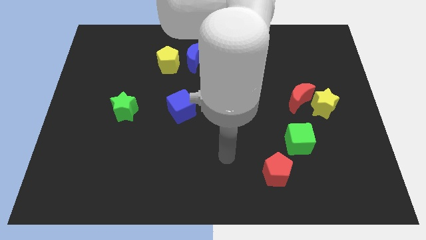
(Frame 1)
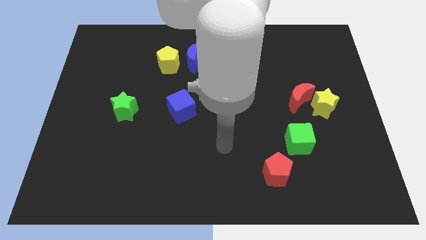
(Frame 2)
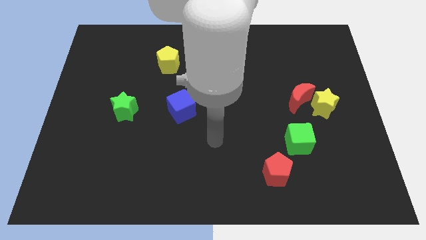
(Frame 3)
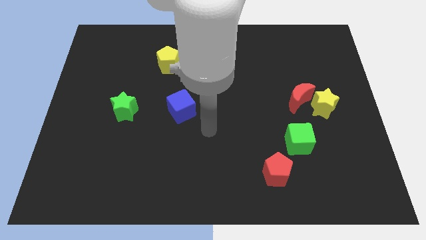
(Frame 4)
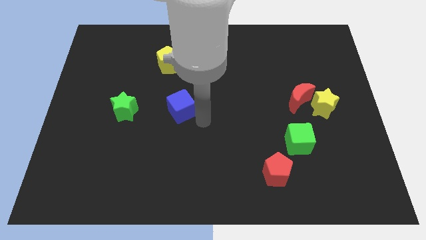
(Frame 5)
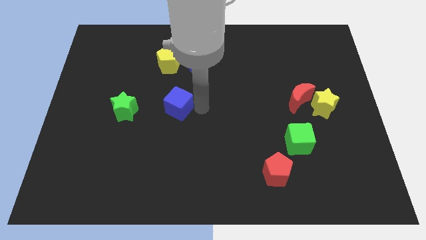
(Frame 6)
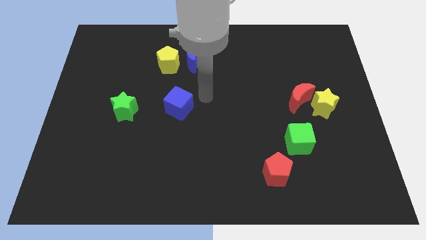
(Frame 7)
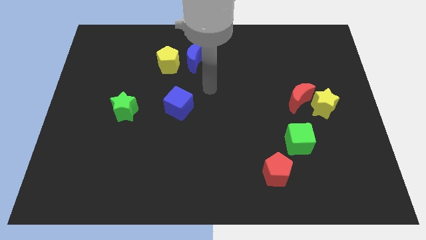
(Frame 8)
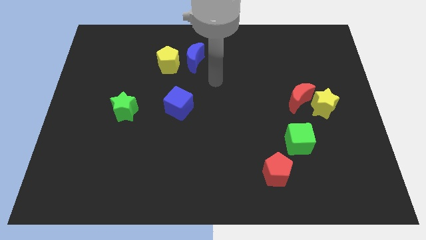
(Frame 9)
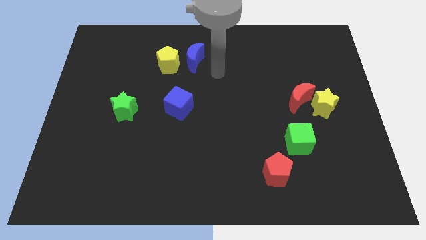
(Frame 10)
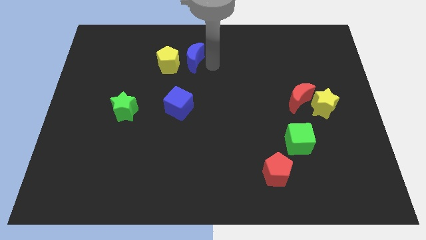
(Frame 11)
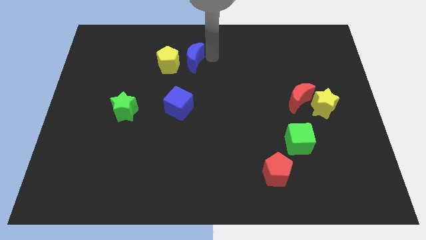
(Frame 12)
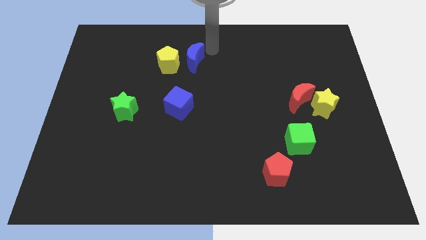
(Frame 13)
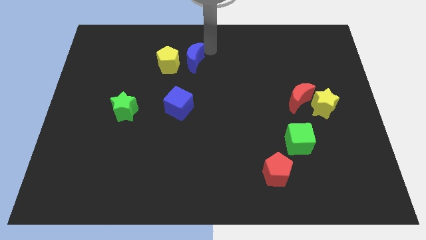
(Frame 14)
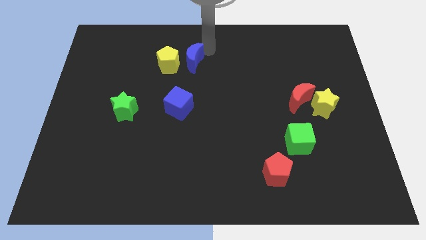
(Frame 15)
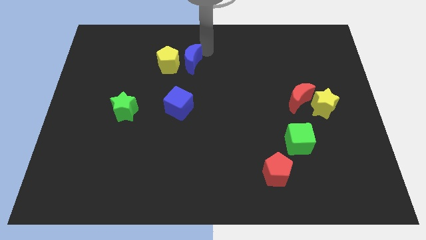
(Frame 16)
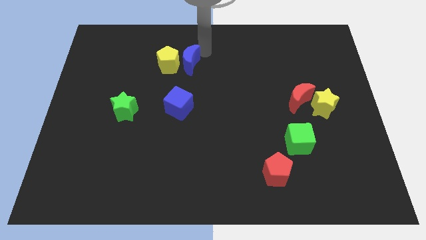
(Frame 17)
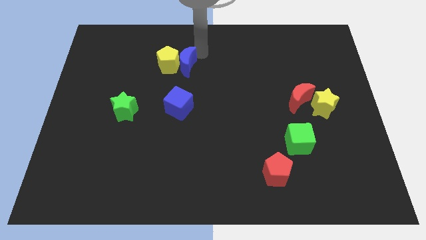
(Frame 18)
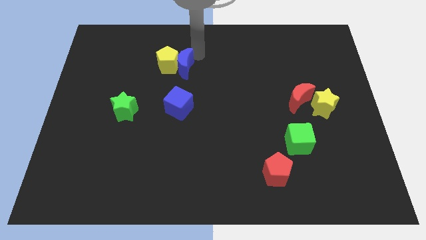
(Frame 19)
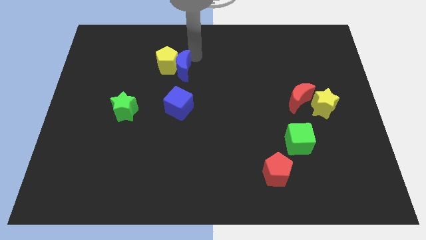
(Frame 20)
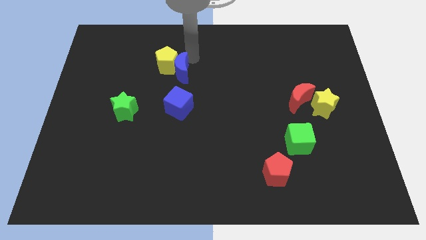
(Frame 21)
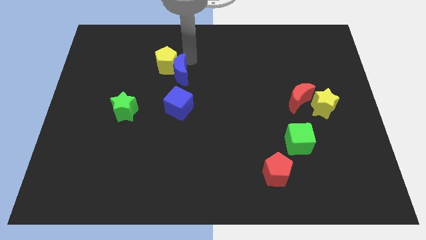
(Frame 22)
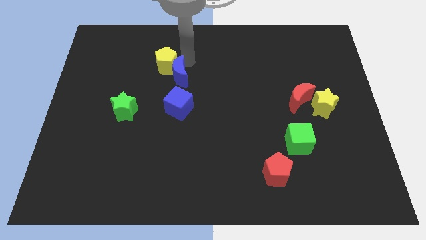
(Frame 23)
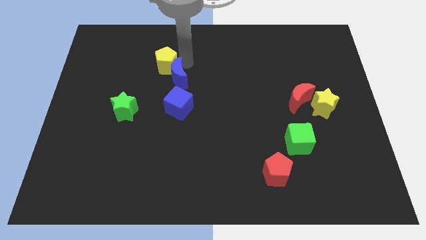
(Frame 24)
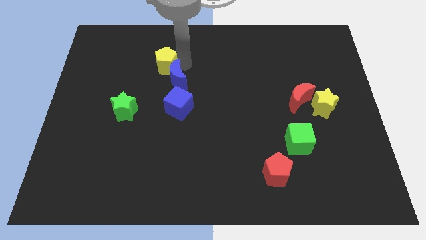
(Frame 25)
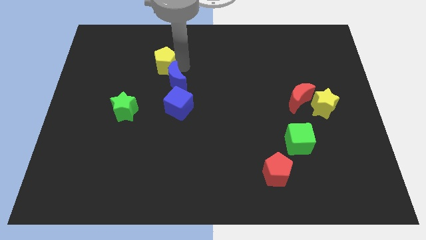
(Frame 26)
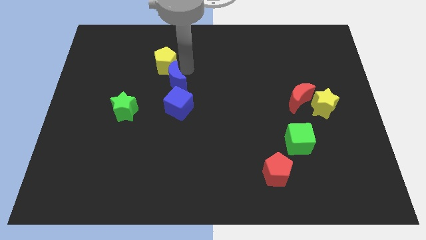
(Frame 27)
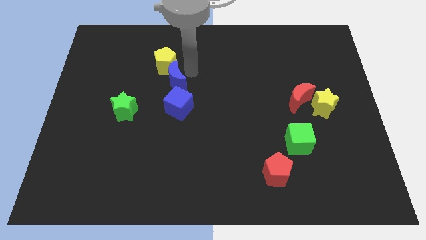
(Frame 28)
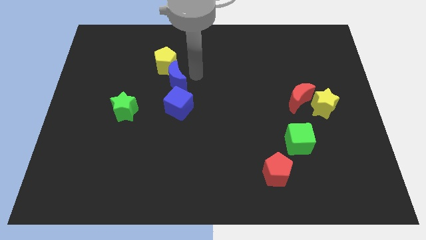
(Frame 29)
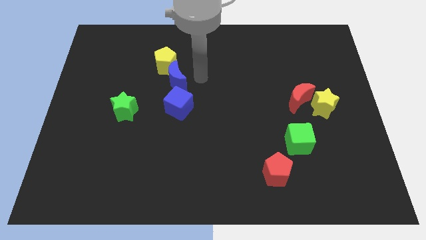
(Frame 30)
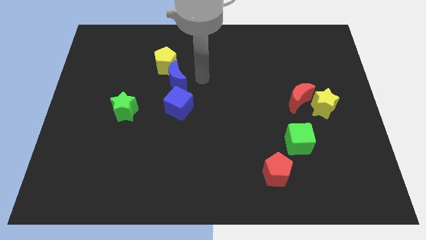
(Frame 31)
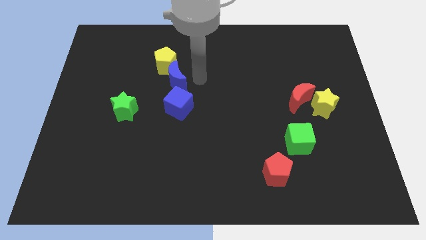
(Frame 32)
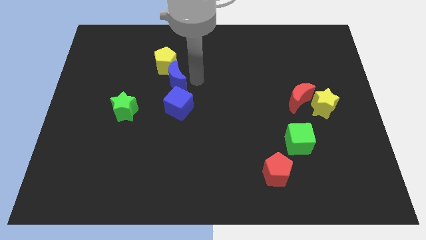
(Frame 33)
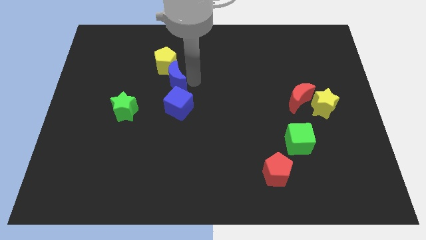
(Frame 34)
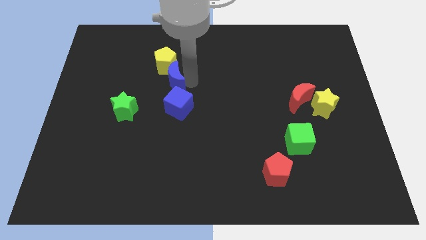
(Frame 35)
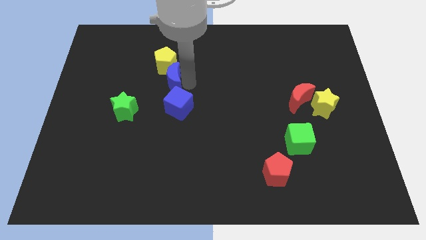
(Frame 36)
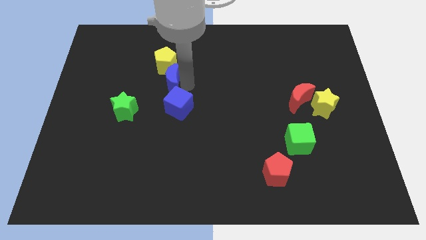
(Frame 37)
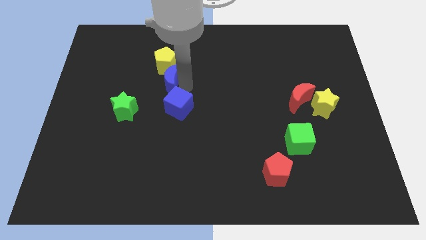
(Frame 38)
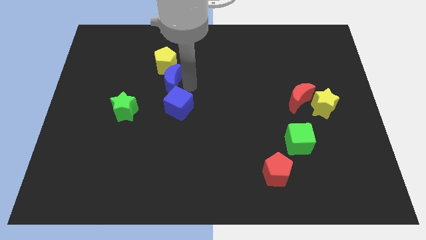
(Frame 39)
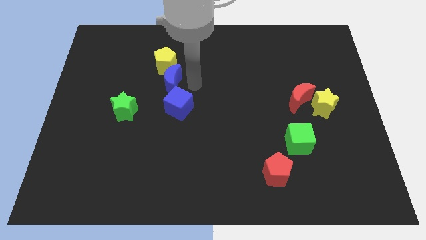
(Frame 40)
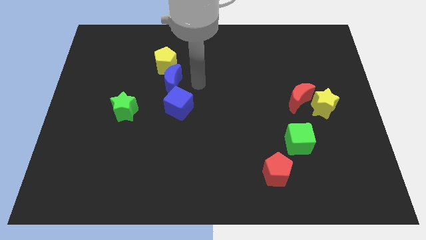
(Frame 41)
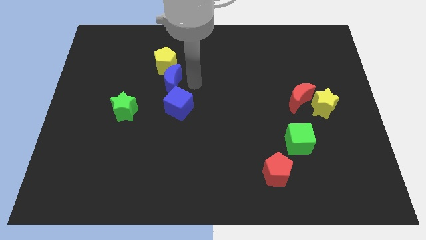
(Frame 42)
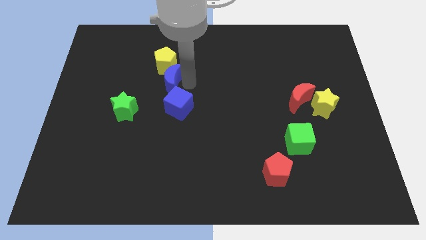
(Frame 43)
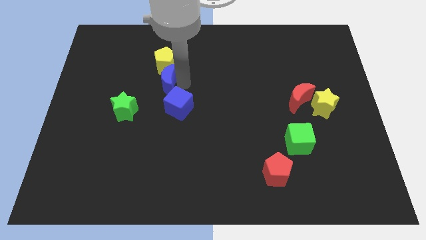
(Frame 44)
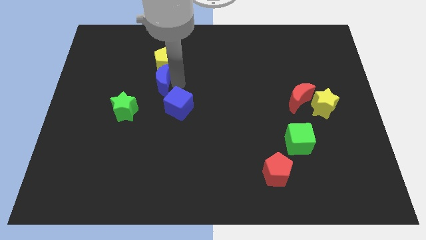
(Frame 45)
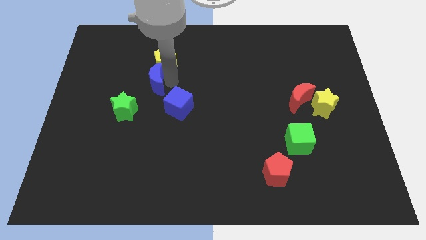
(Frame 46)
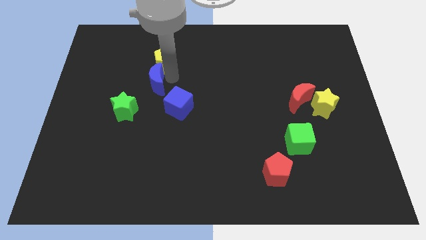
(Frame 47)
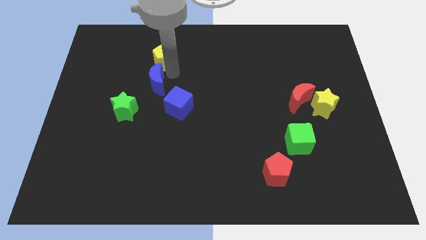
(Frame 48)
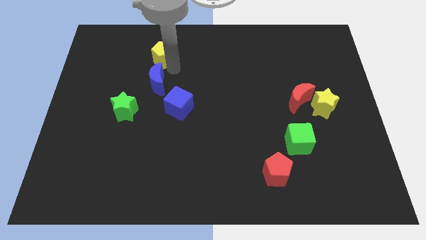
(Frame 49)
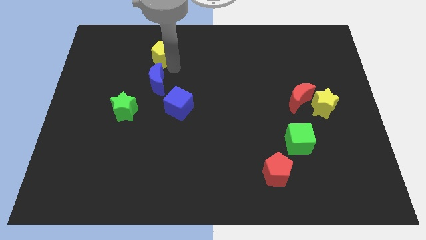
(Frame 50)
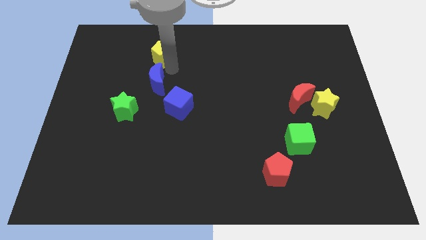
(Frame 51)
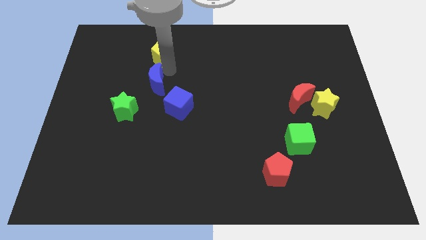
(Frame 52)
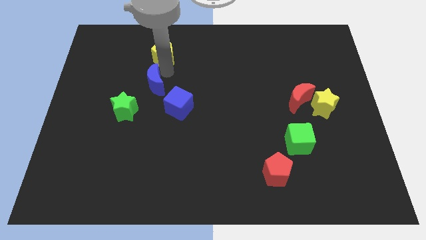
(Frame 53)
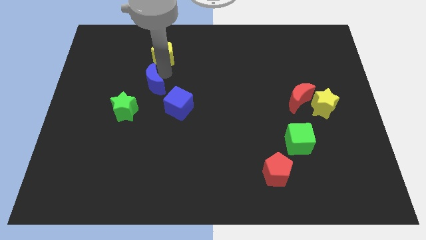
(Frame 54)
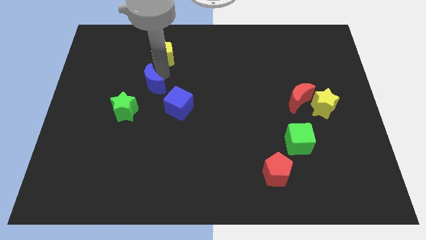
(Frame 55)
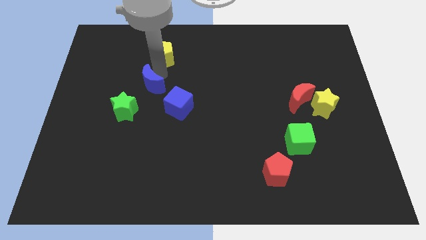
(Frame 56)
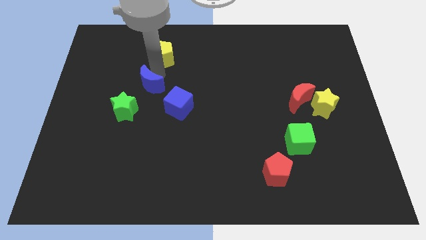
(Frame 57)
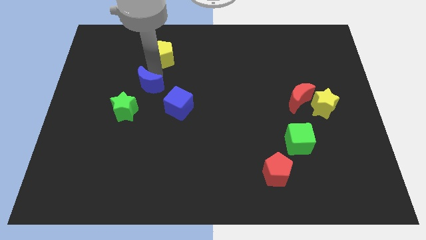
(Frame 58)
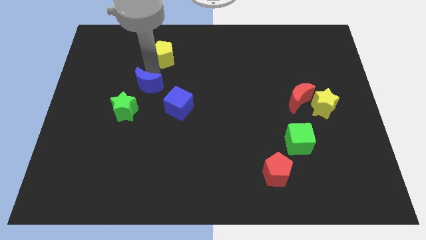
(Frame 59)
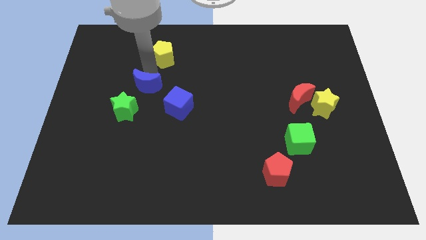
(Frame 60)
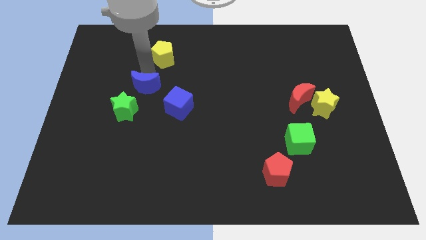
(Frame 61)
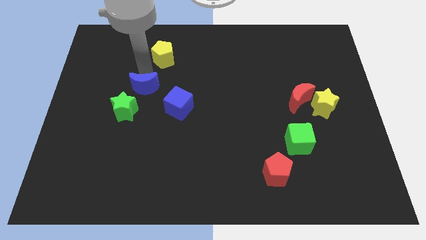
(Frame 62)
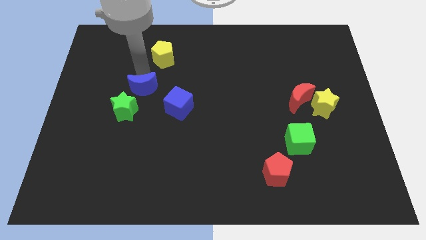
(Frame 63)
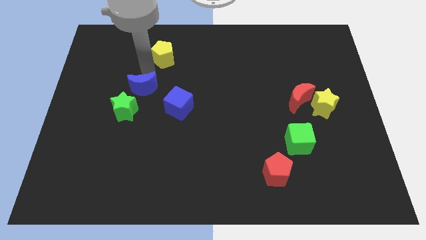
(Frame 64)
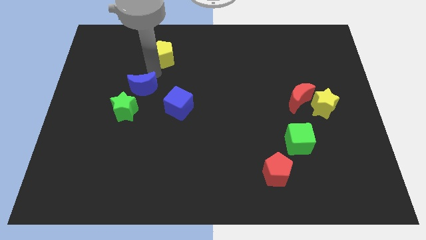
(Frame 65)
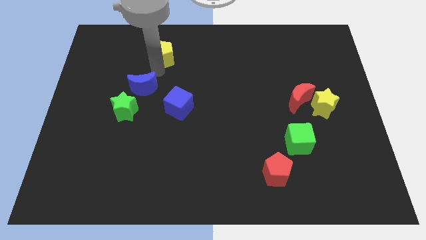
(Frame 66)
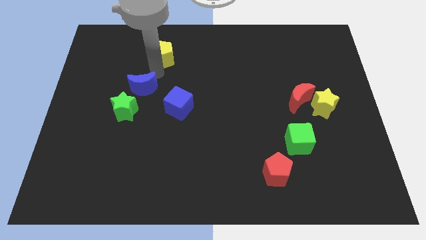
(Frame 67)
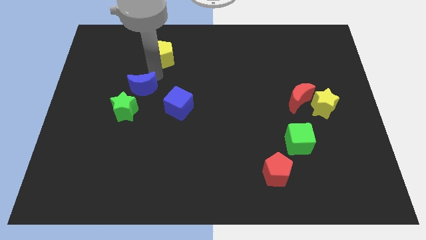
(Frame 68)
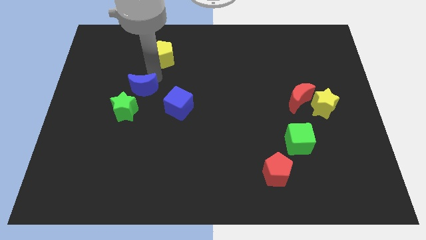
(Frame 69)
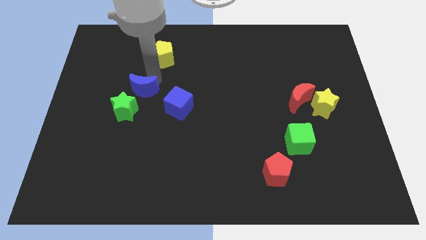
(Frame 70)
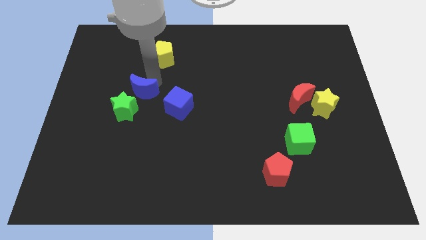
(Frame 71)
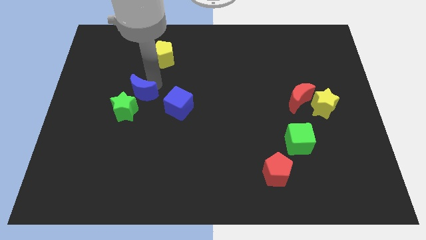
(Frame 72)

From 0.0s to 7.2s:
put the blue moon next to the green star
